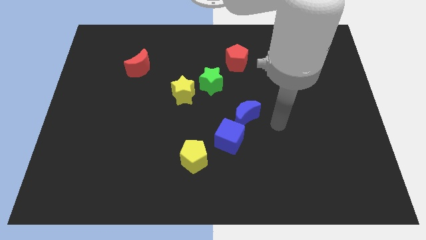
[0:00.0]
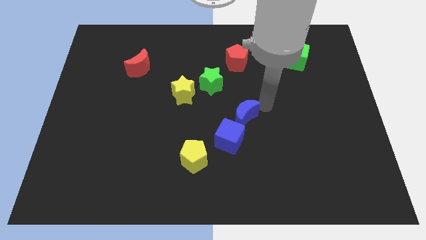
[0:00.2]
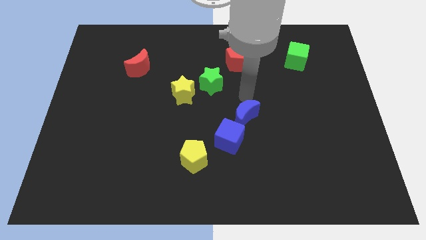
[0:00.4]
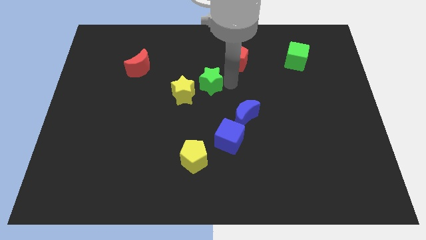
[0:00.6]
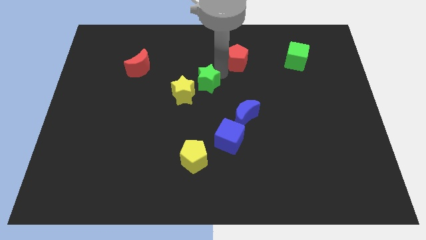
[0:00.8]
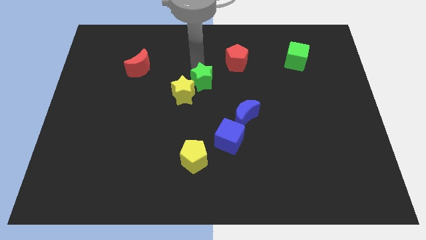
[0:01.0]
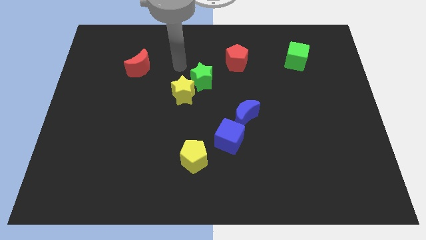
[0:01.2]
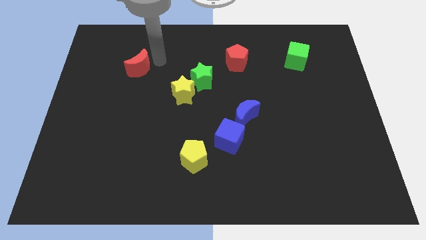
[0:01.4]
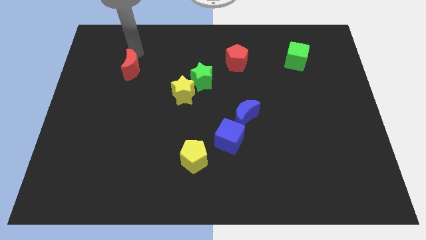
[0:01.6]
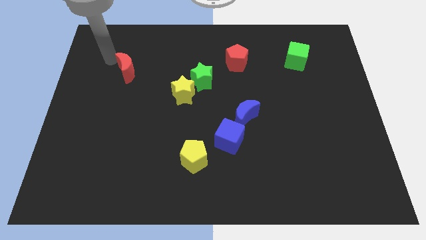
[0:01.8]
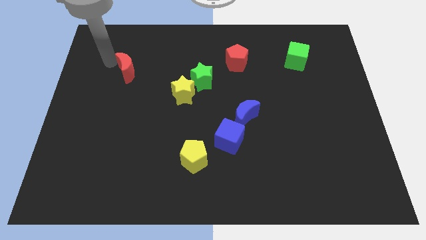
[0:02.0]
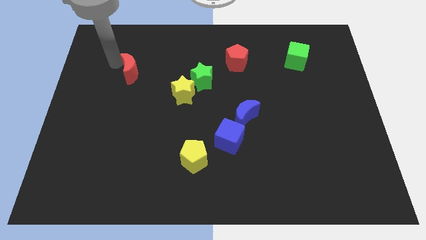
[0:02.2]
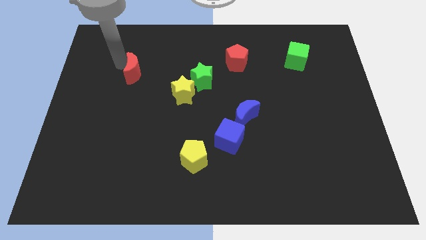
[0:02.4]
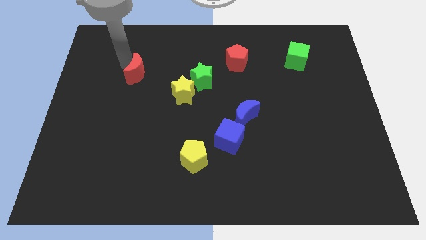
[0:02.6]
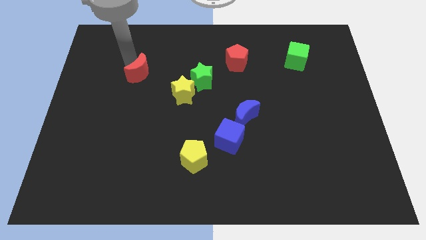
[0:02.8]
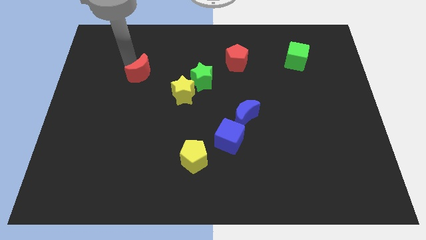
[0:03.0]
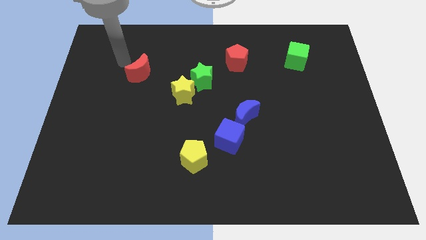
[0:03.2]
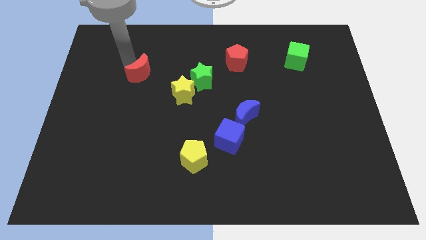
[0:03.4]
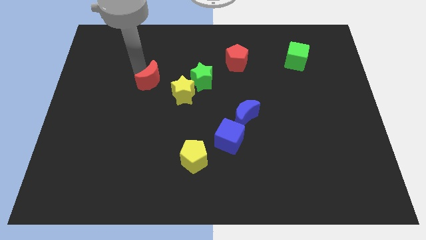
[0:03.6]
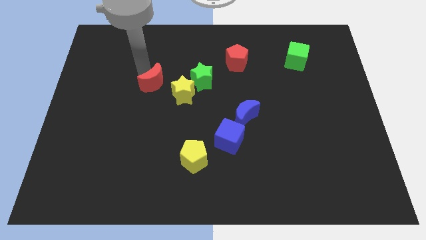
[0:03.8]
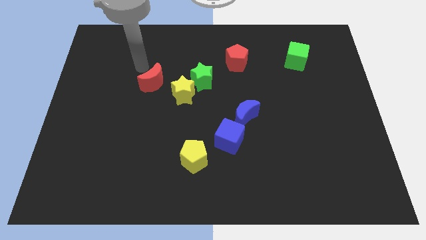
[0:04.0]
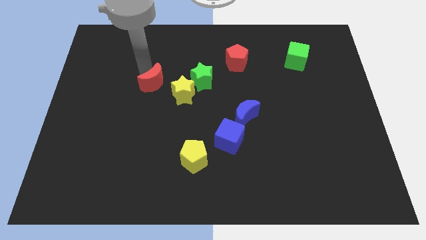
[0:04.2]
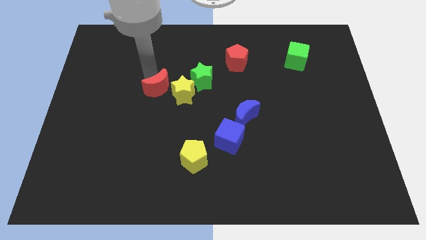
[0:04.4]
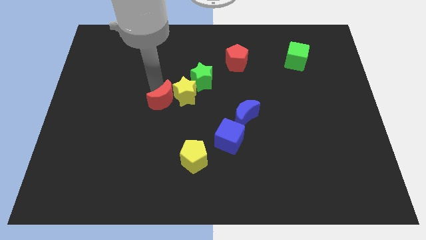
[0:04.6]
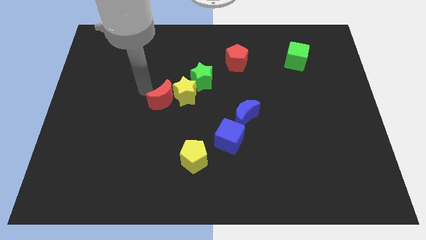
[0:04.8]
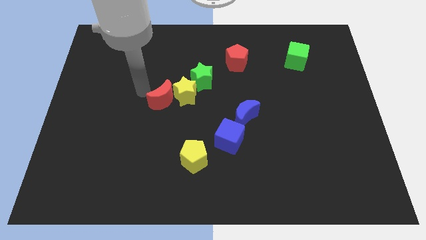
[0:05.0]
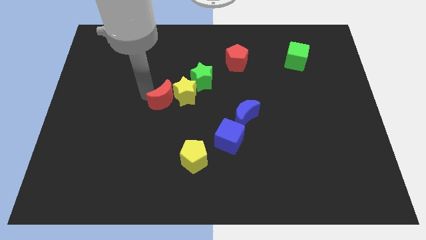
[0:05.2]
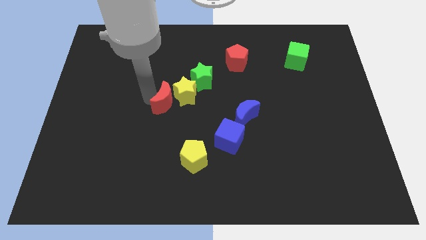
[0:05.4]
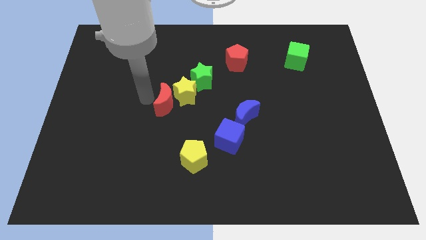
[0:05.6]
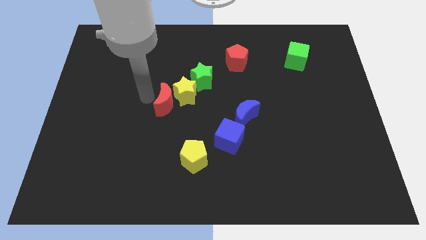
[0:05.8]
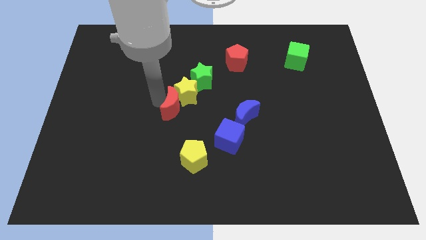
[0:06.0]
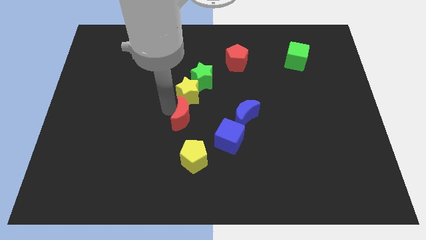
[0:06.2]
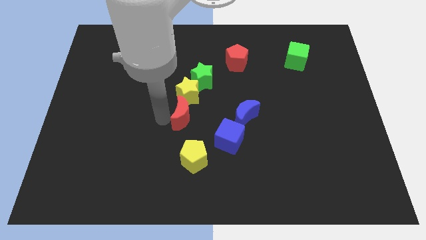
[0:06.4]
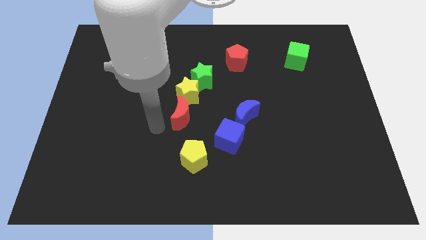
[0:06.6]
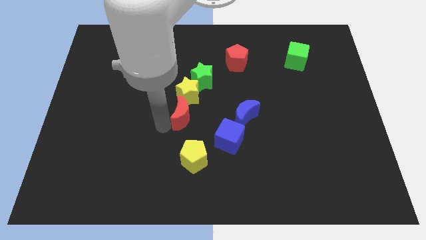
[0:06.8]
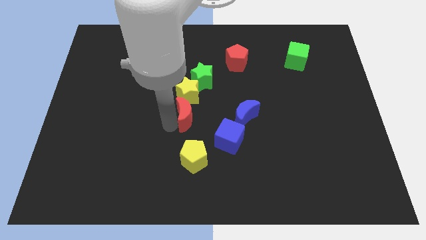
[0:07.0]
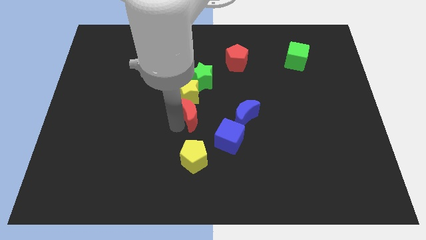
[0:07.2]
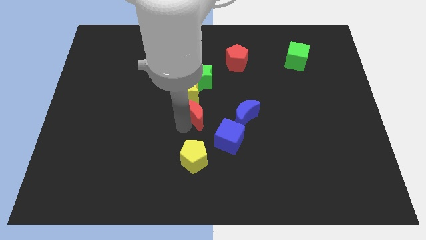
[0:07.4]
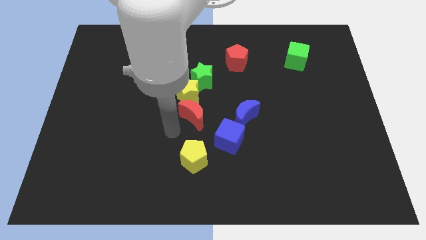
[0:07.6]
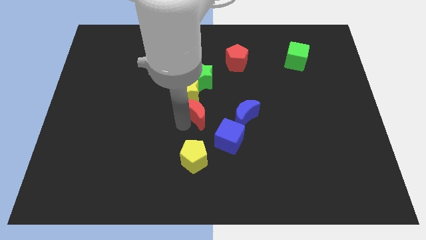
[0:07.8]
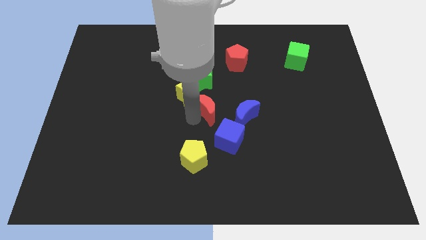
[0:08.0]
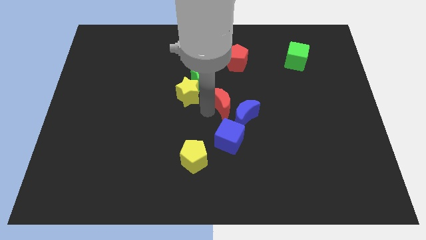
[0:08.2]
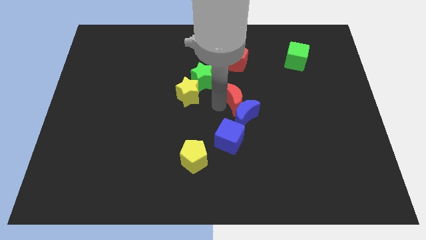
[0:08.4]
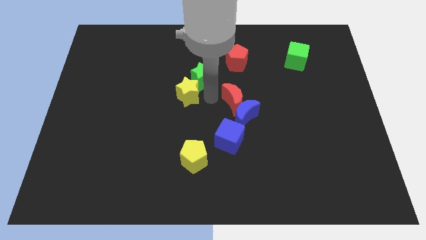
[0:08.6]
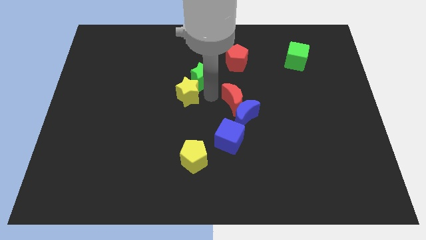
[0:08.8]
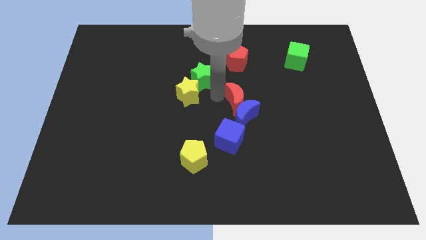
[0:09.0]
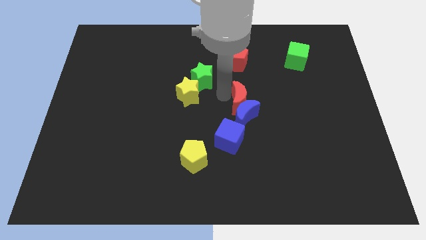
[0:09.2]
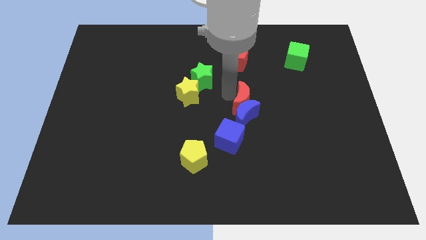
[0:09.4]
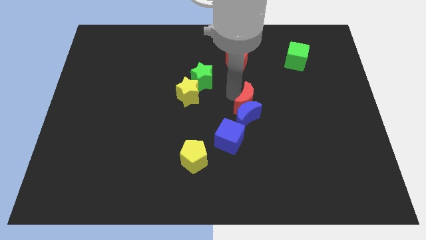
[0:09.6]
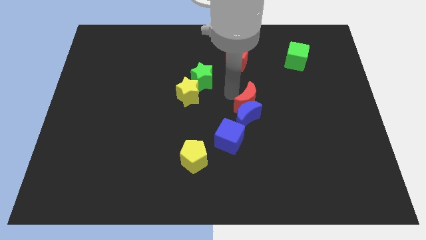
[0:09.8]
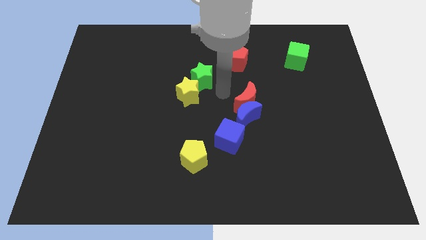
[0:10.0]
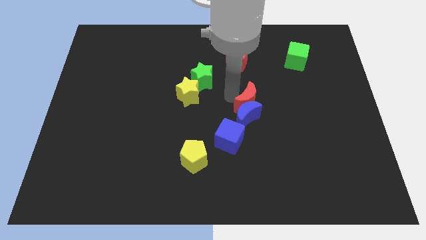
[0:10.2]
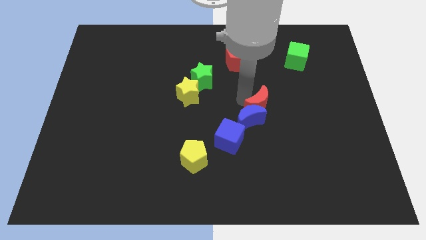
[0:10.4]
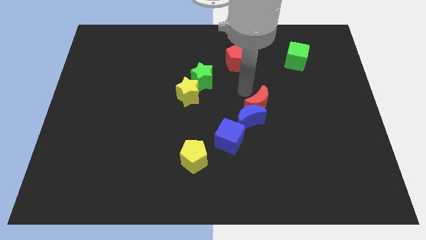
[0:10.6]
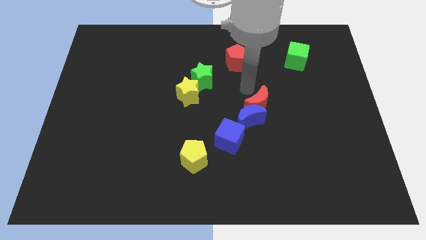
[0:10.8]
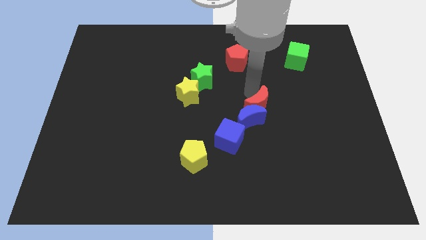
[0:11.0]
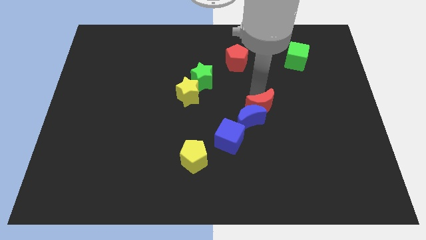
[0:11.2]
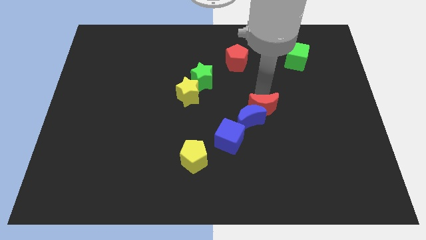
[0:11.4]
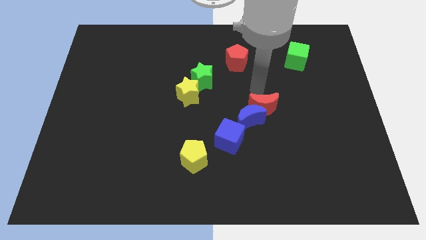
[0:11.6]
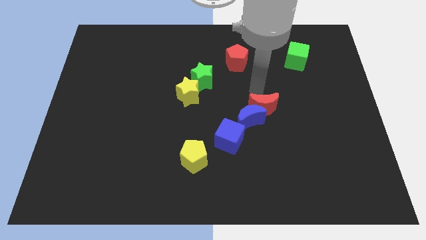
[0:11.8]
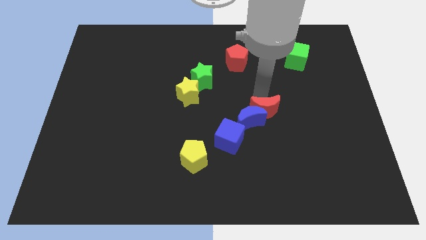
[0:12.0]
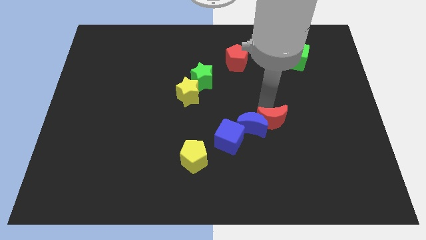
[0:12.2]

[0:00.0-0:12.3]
slide the red moon right of the blue cube

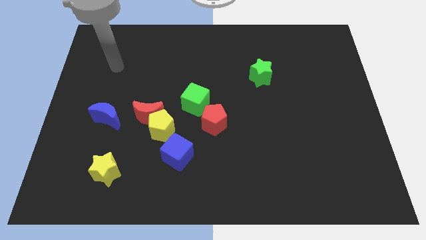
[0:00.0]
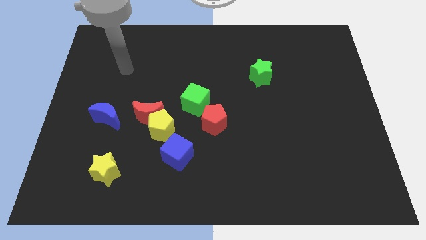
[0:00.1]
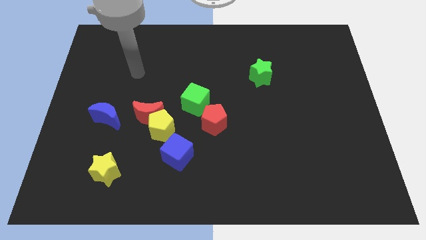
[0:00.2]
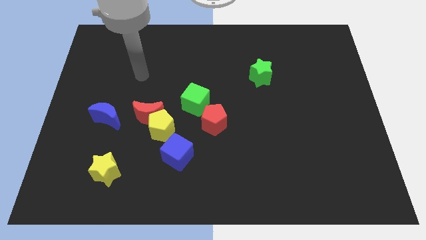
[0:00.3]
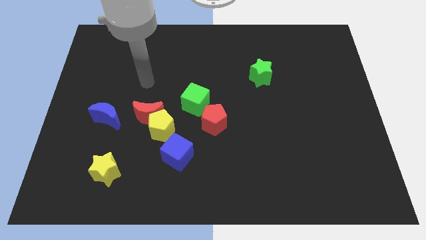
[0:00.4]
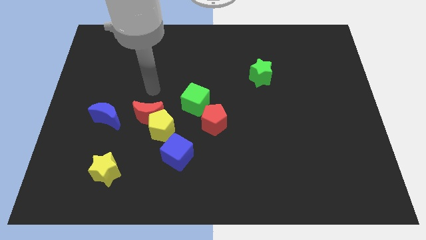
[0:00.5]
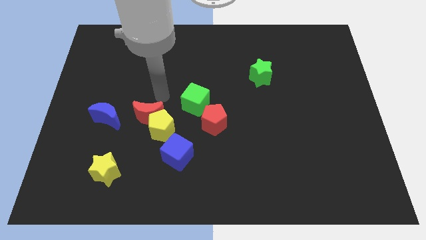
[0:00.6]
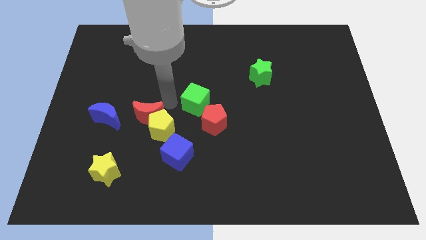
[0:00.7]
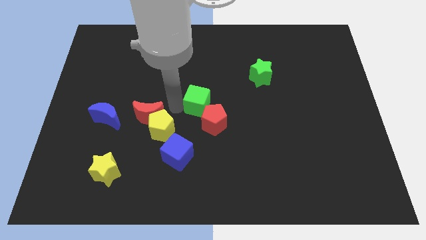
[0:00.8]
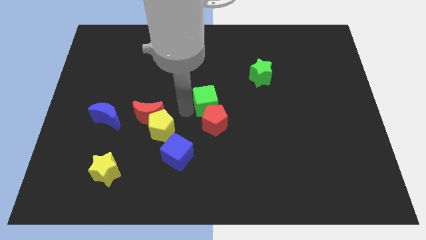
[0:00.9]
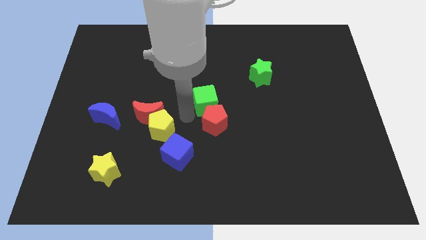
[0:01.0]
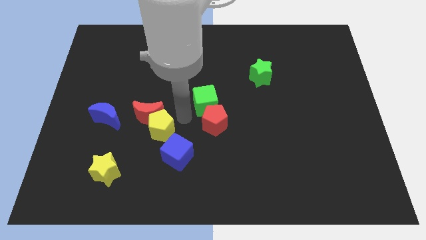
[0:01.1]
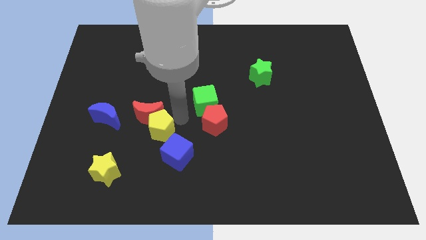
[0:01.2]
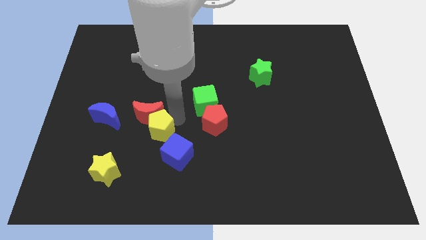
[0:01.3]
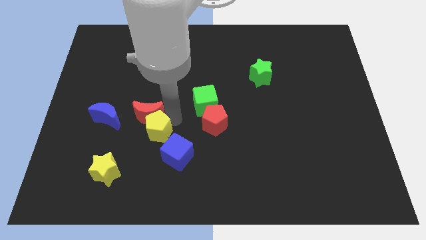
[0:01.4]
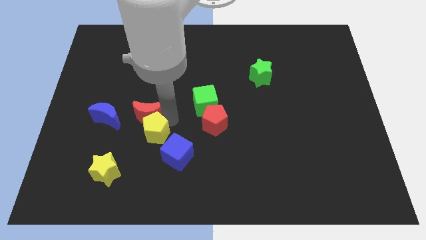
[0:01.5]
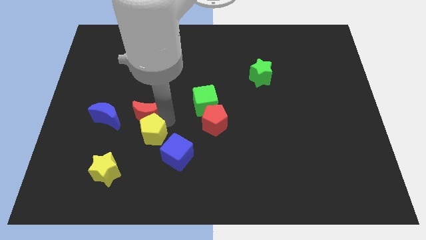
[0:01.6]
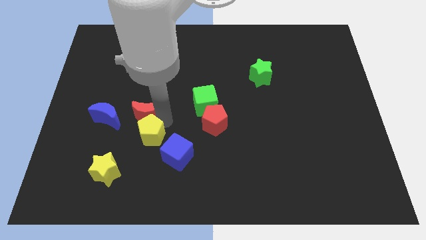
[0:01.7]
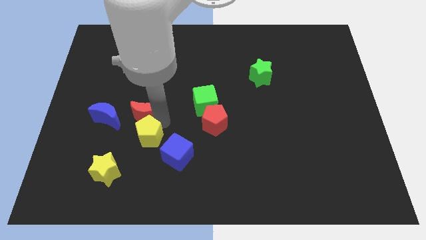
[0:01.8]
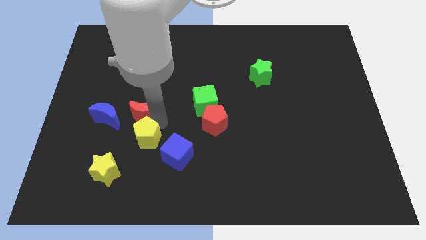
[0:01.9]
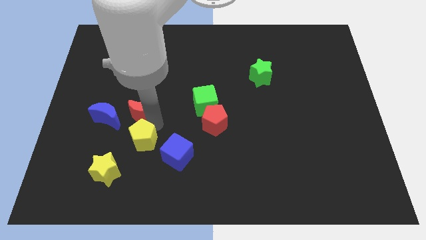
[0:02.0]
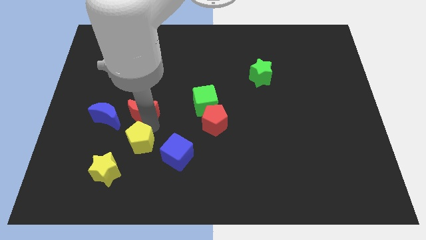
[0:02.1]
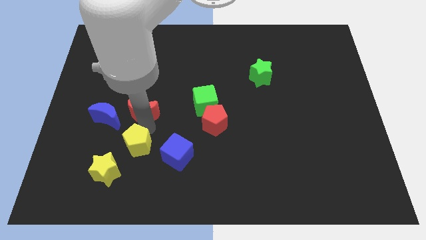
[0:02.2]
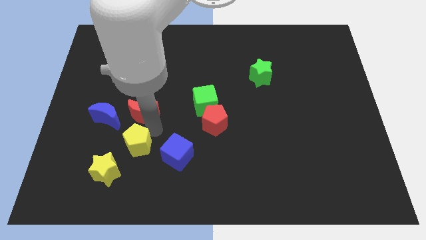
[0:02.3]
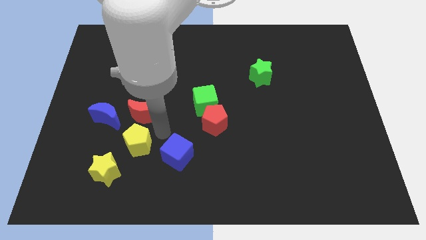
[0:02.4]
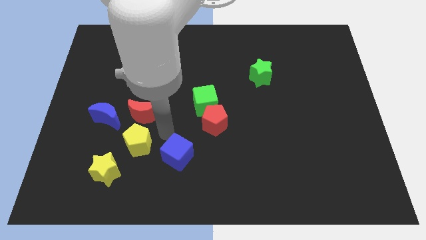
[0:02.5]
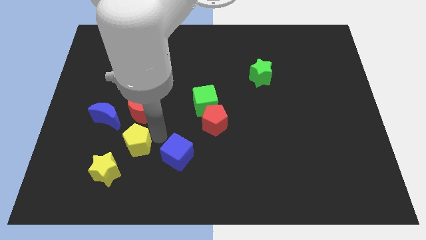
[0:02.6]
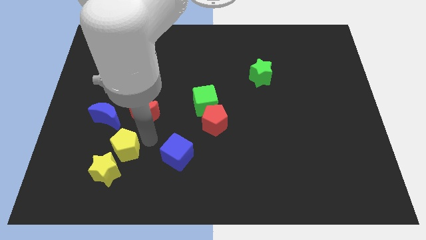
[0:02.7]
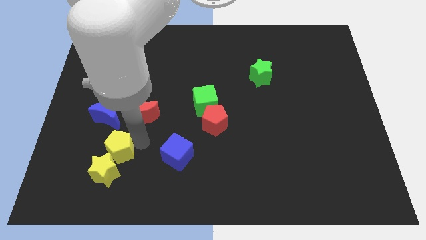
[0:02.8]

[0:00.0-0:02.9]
push the yellow pentagon to the bottom side of the blue moon
